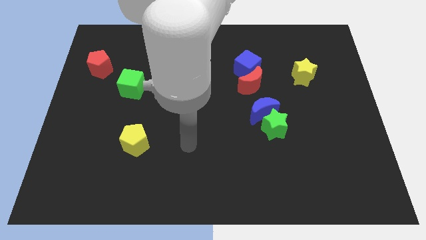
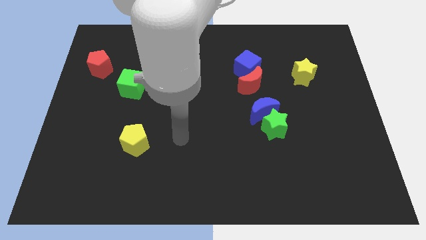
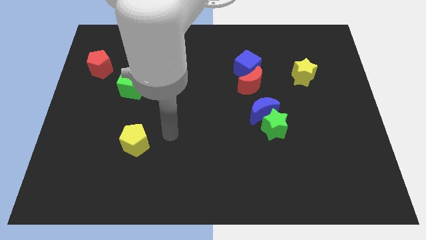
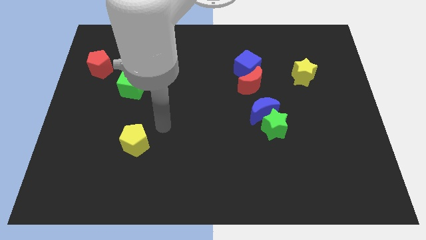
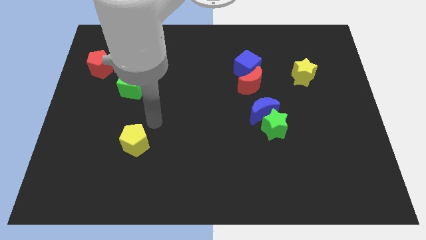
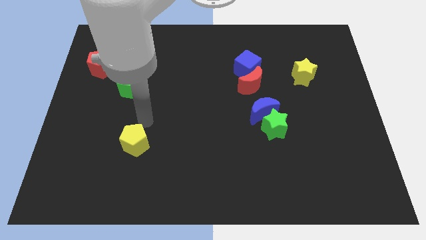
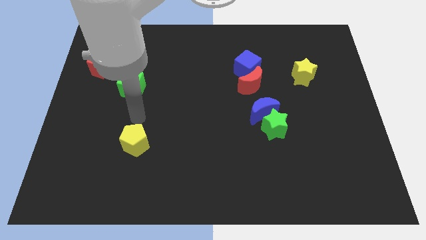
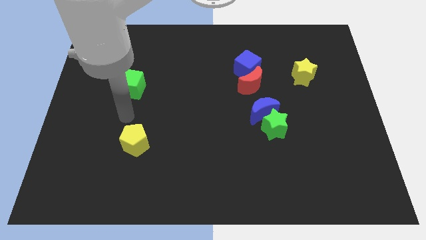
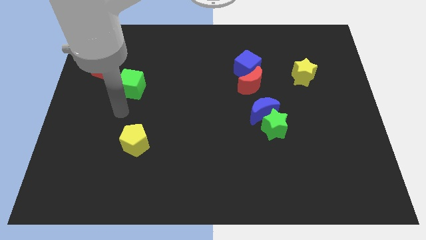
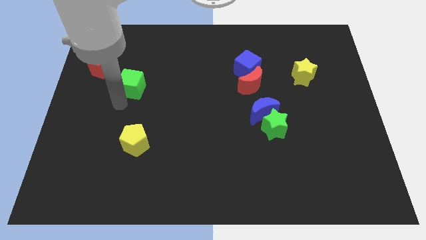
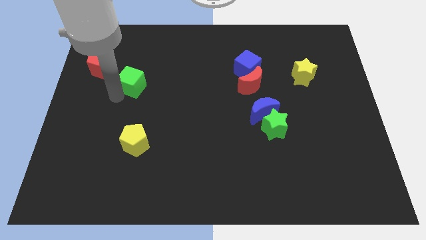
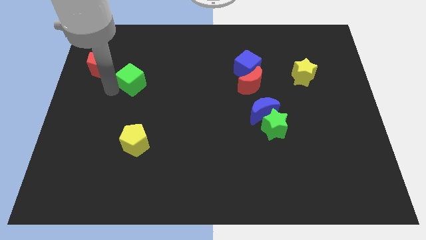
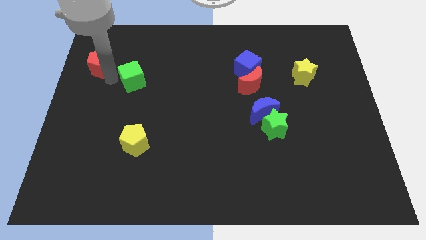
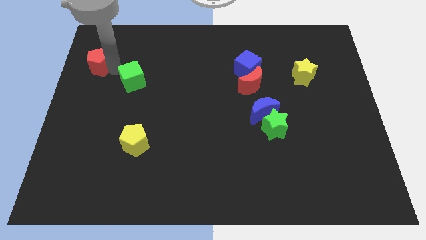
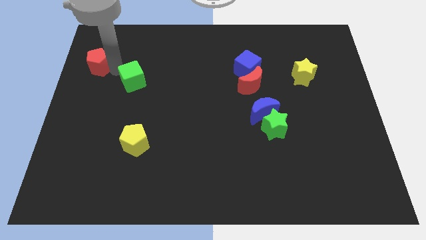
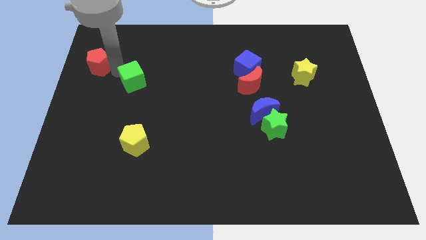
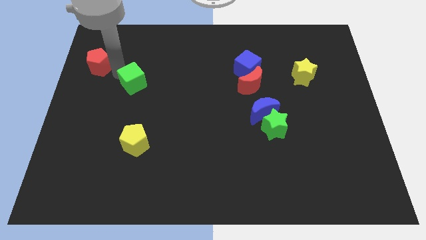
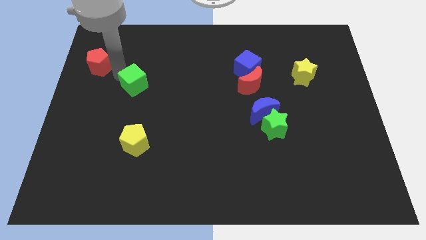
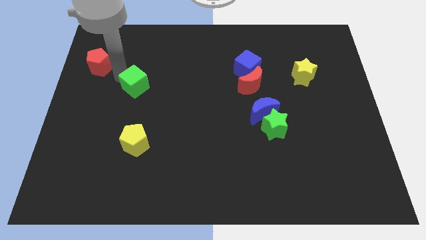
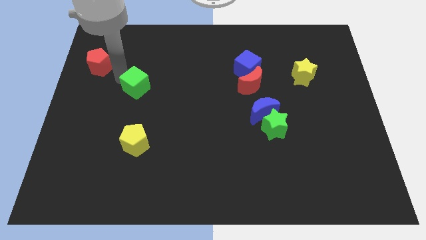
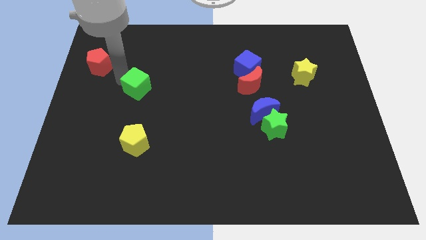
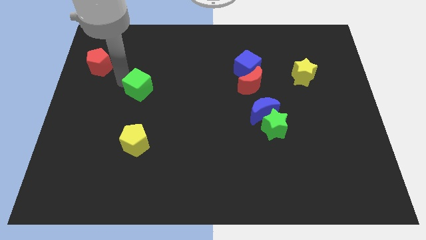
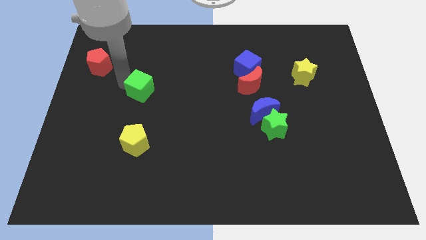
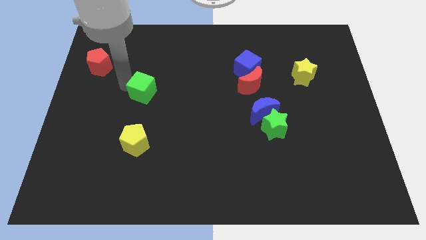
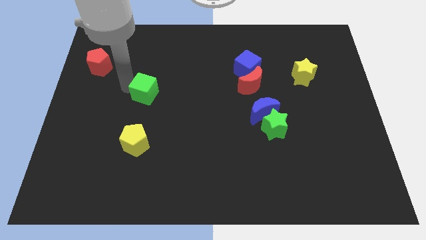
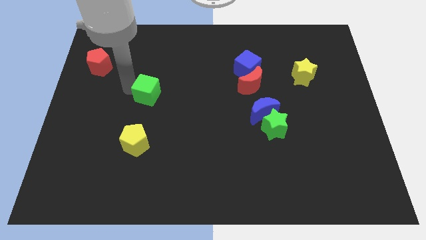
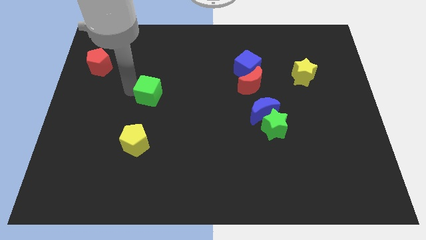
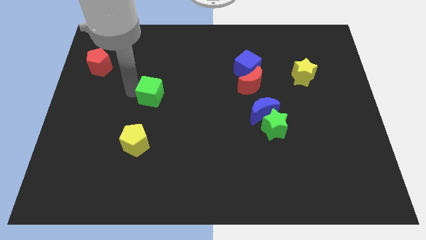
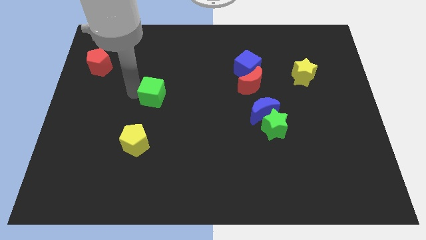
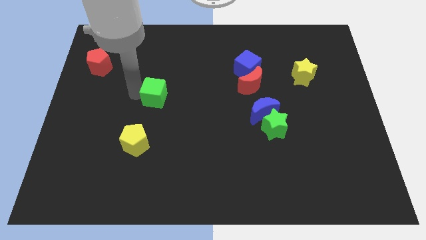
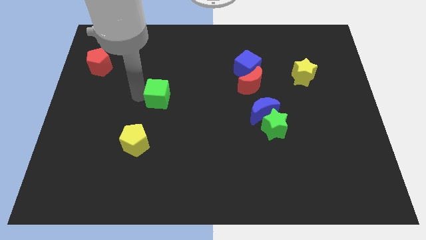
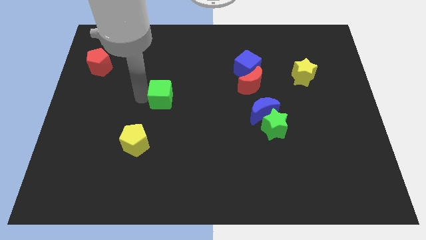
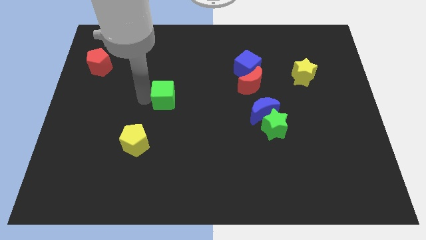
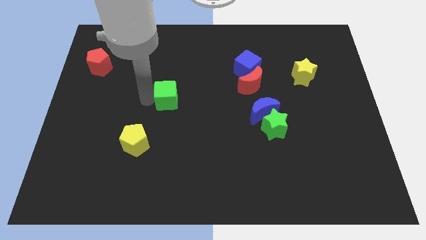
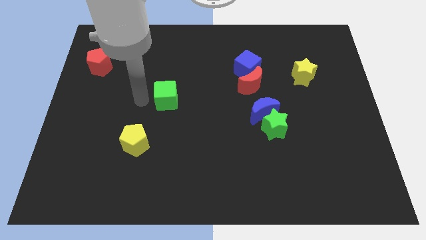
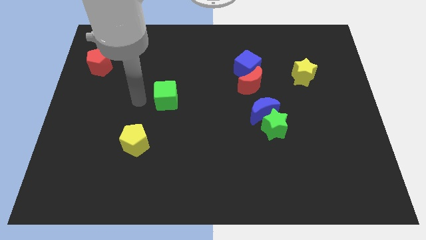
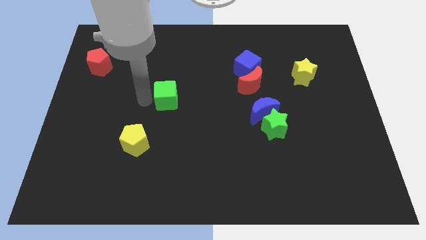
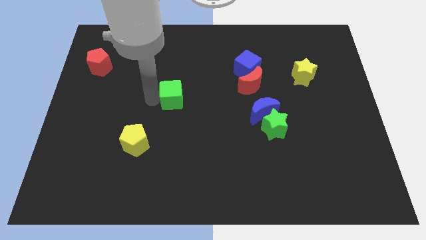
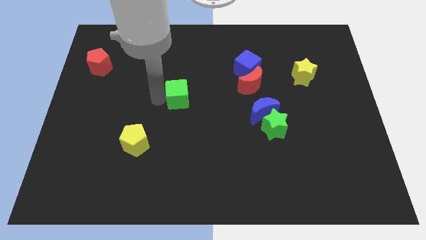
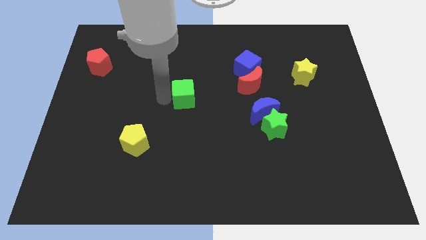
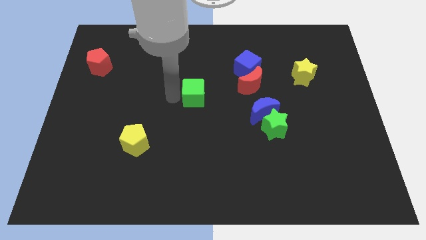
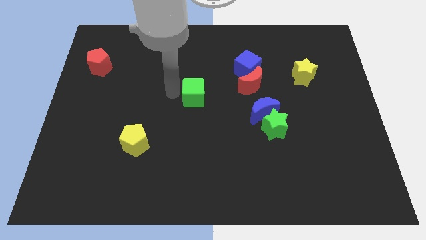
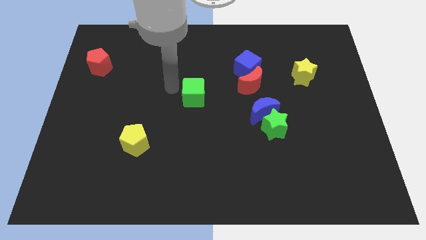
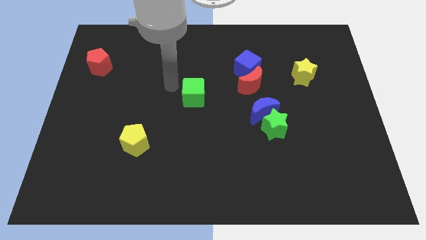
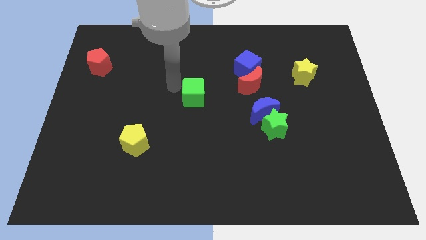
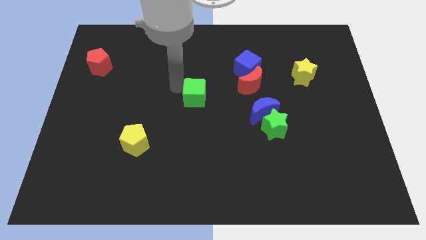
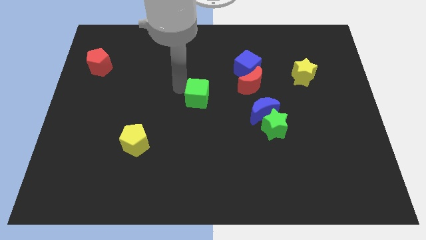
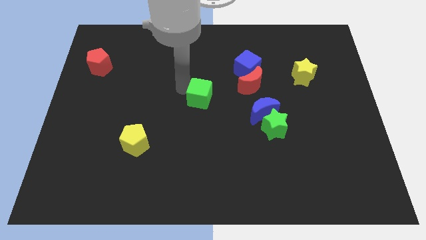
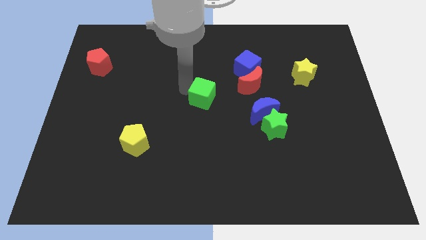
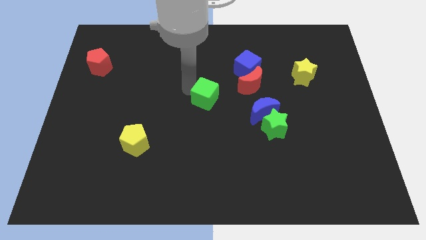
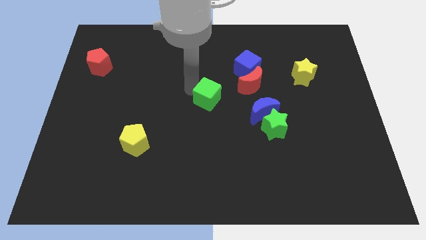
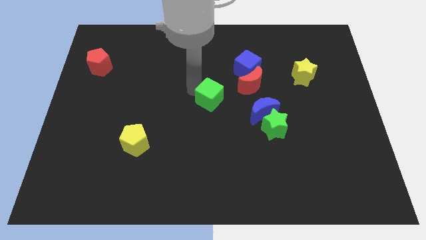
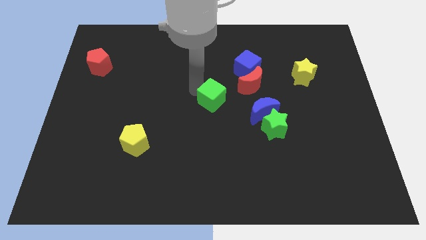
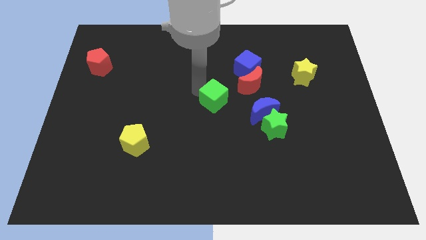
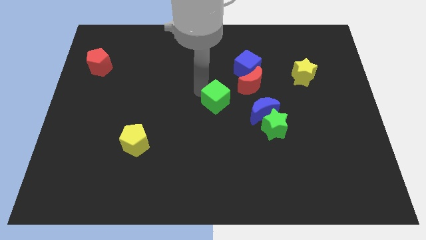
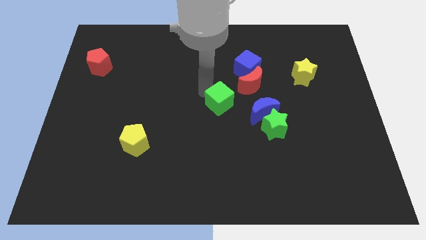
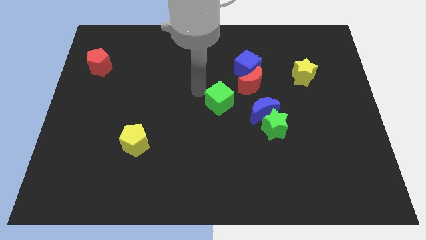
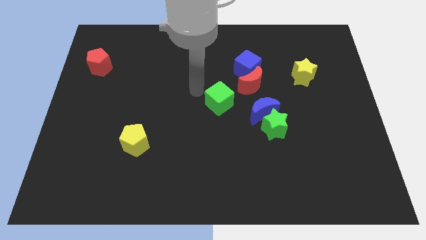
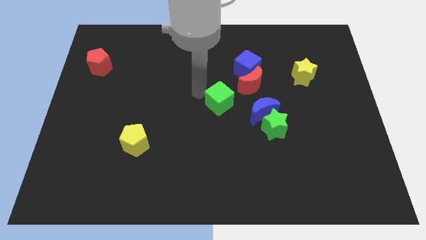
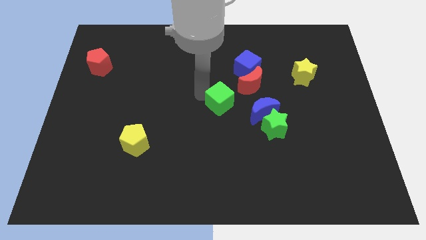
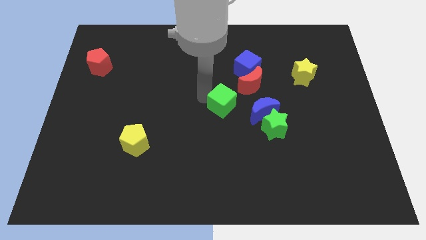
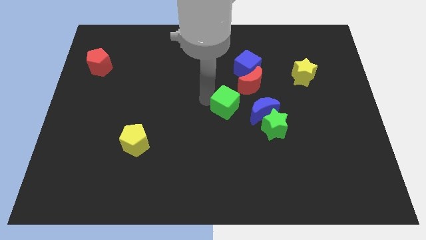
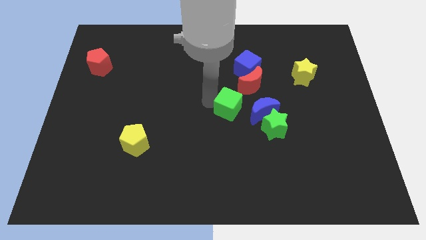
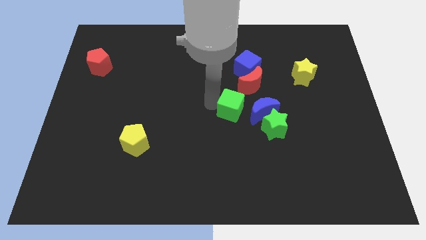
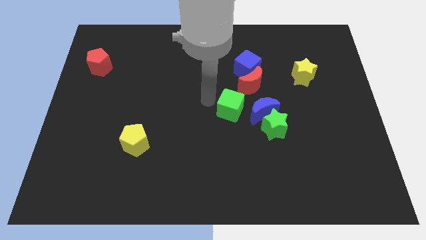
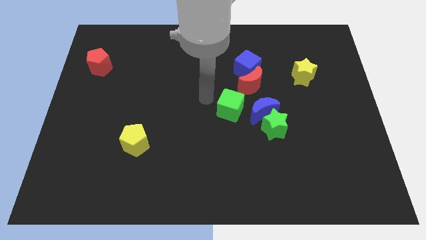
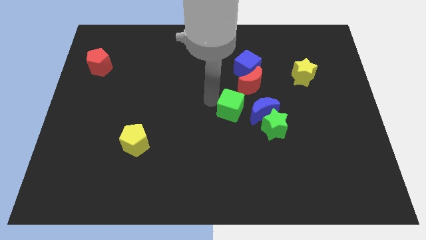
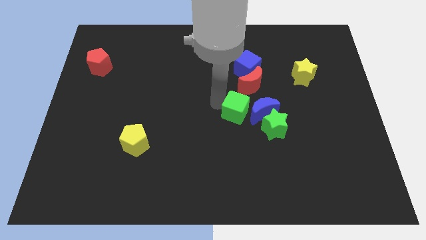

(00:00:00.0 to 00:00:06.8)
put the green cube to the bottom of the red moon

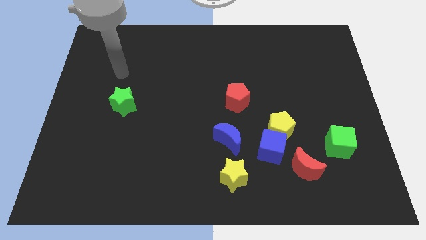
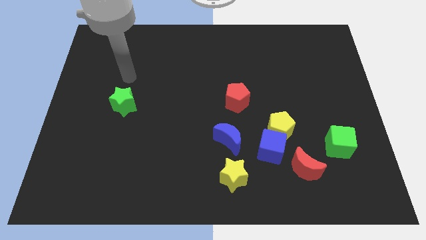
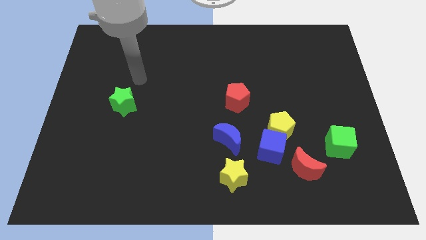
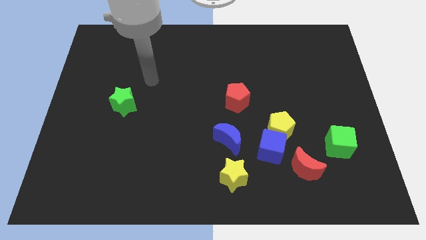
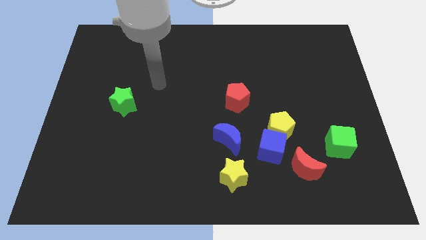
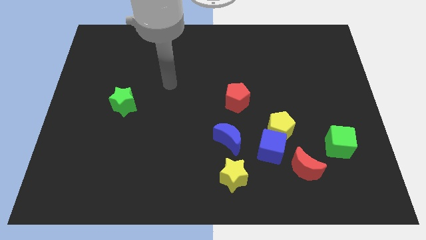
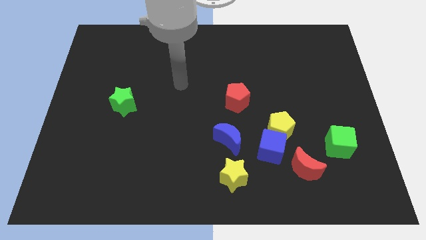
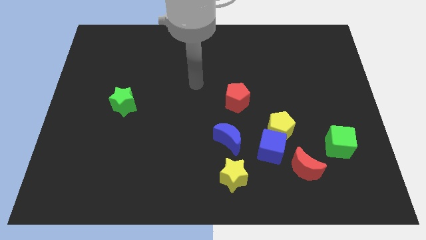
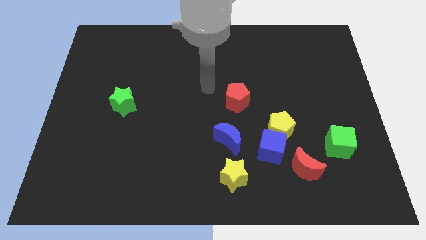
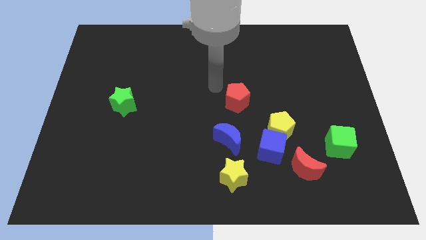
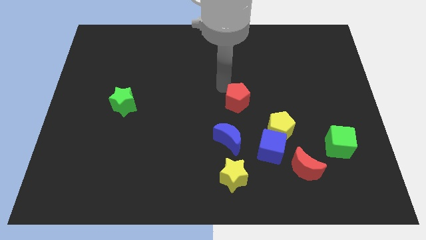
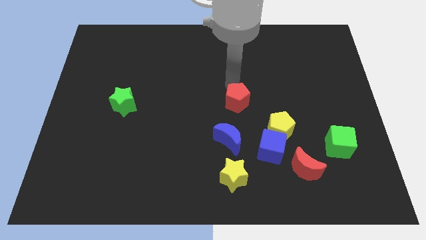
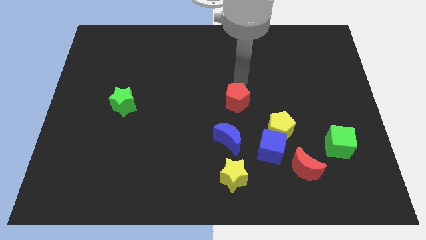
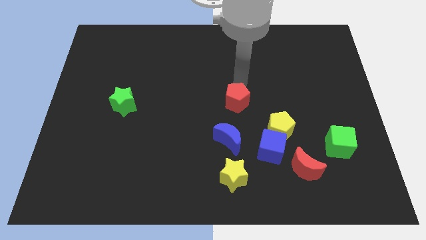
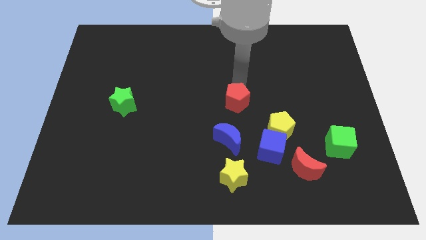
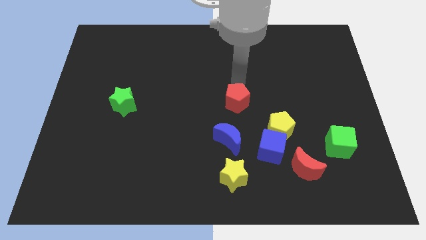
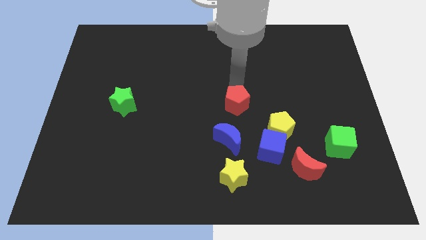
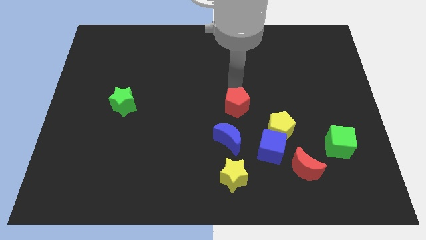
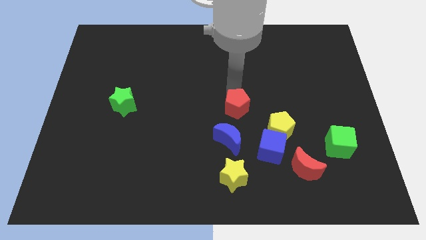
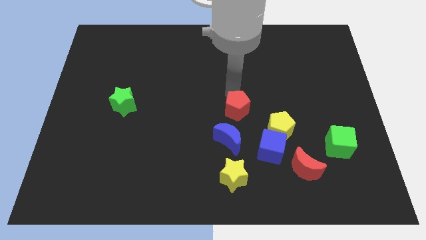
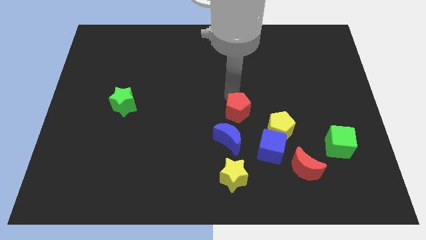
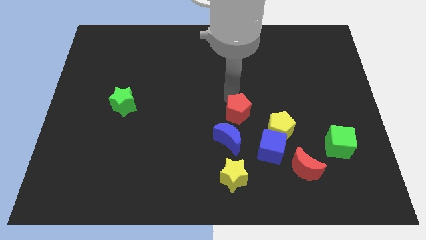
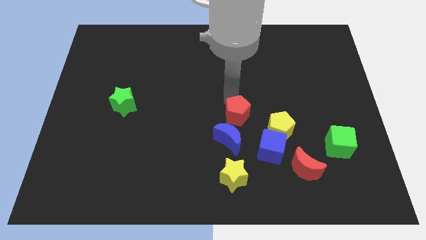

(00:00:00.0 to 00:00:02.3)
move the red pentagon above the yellow star
